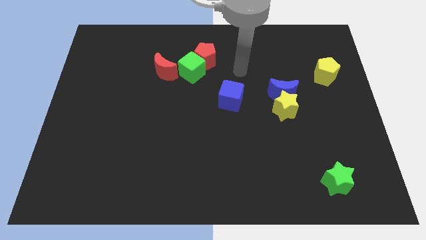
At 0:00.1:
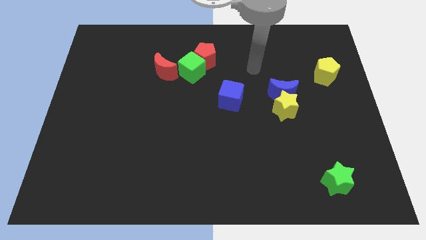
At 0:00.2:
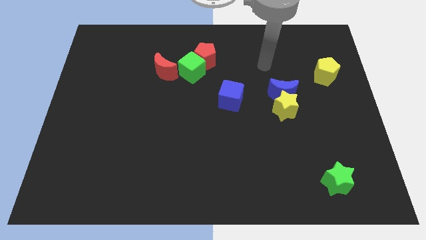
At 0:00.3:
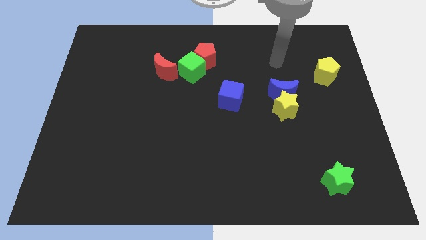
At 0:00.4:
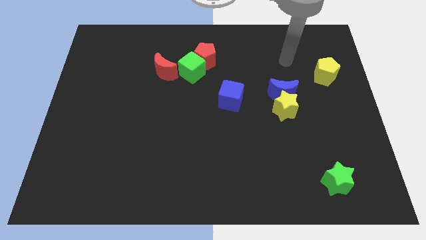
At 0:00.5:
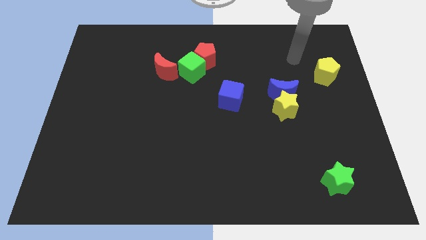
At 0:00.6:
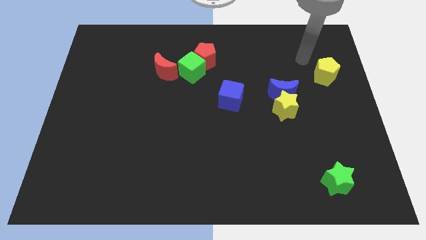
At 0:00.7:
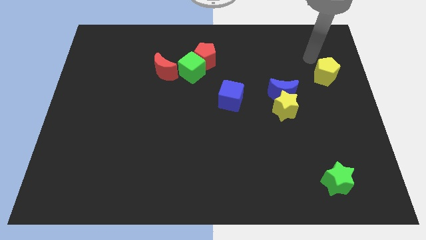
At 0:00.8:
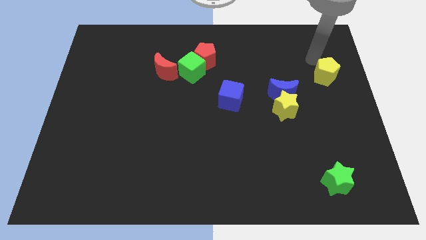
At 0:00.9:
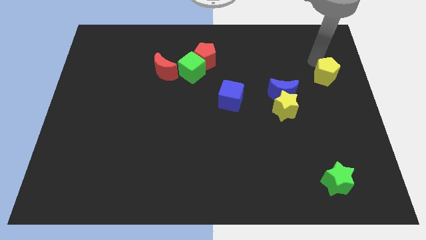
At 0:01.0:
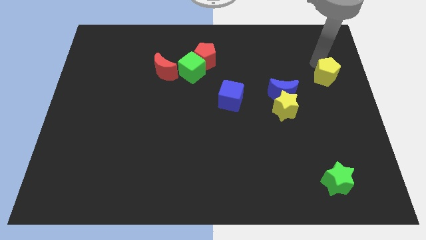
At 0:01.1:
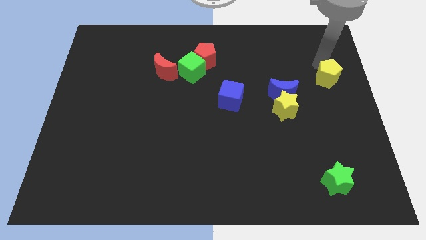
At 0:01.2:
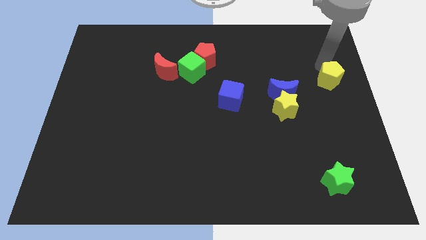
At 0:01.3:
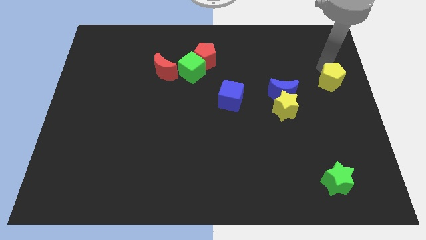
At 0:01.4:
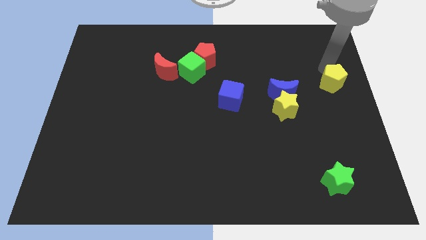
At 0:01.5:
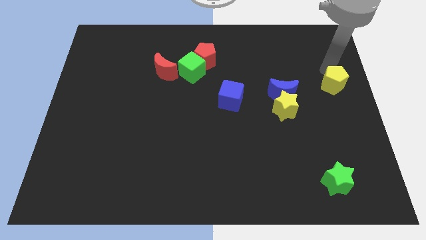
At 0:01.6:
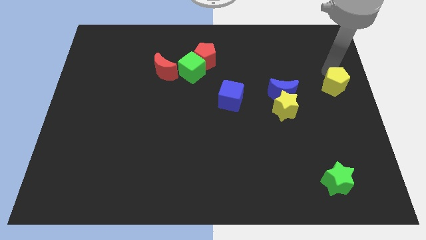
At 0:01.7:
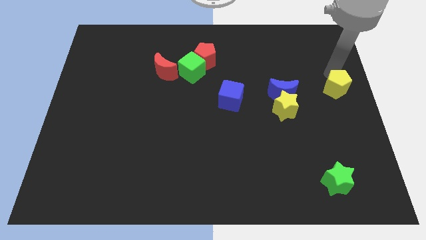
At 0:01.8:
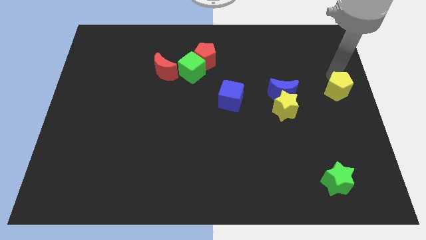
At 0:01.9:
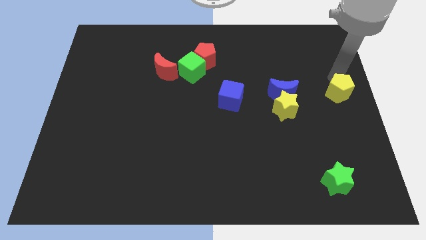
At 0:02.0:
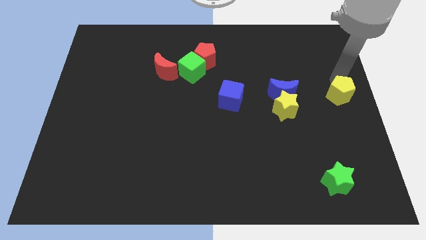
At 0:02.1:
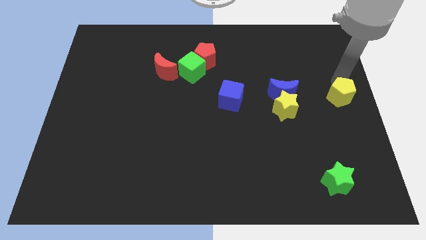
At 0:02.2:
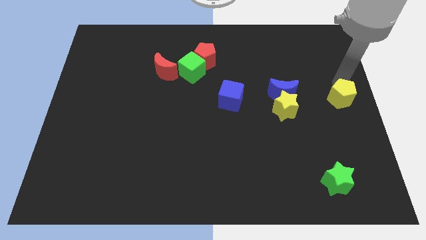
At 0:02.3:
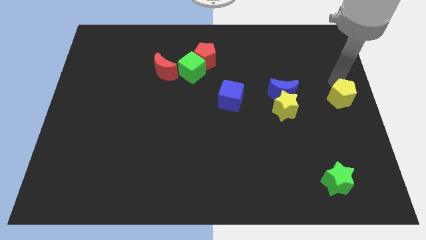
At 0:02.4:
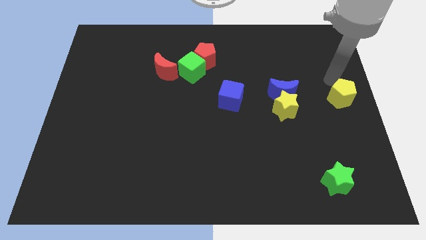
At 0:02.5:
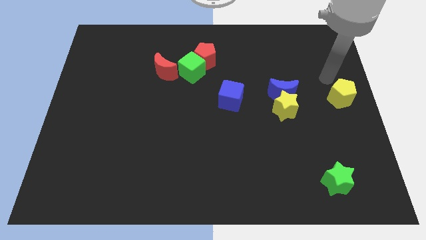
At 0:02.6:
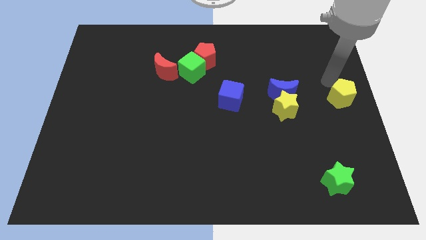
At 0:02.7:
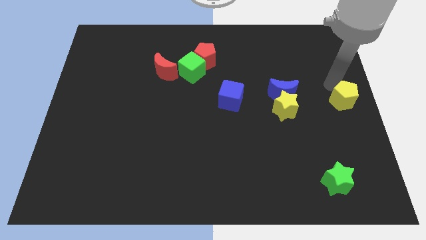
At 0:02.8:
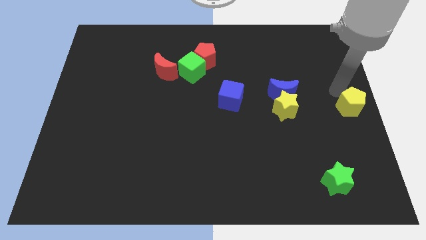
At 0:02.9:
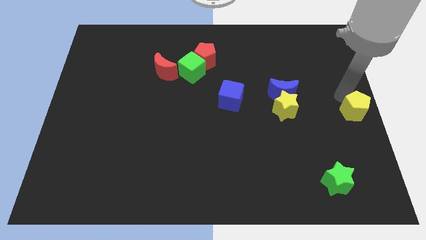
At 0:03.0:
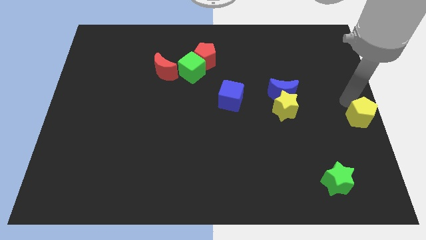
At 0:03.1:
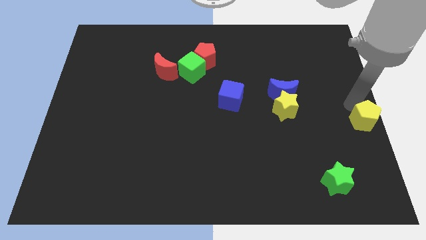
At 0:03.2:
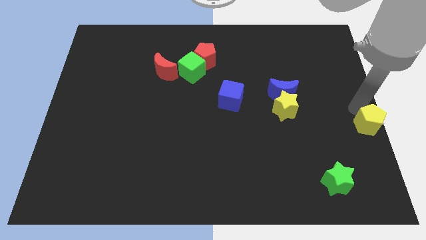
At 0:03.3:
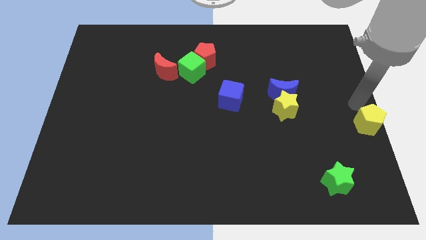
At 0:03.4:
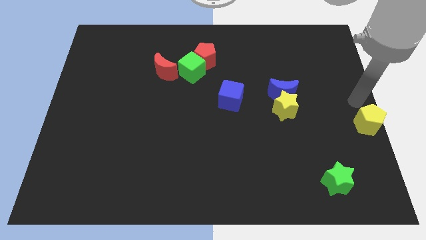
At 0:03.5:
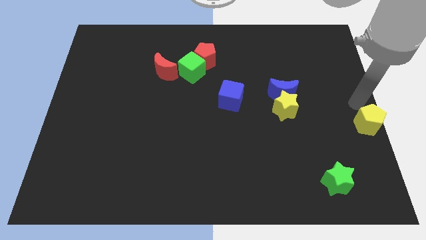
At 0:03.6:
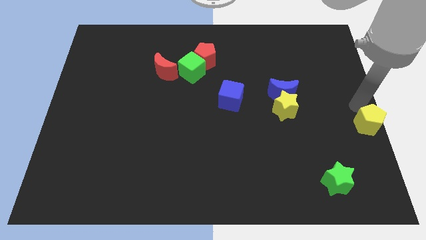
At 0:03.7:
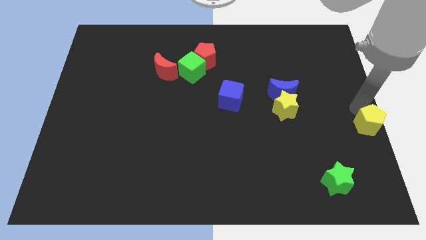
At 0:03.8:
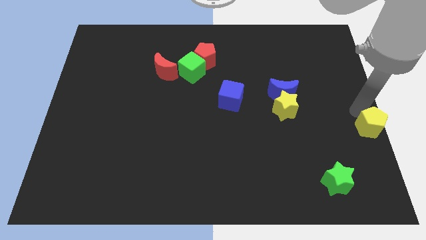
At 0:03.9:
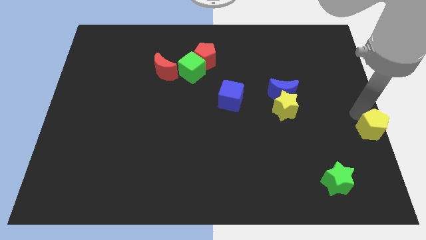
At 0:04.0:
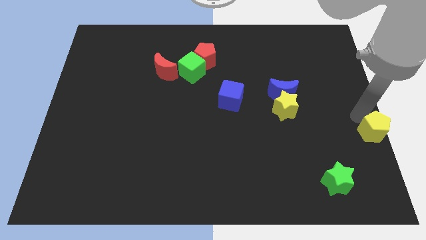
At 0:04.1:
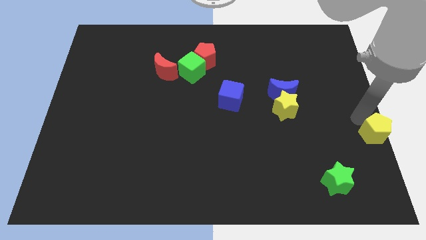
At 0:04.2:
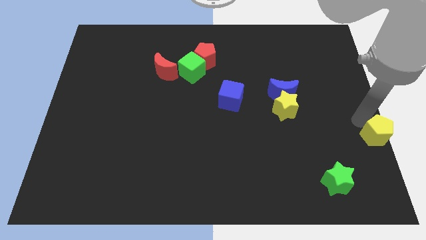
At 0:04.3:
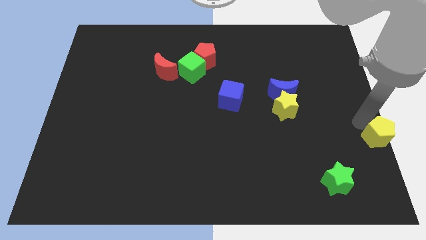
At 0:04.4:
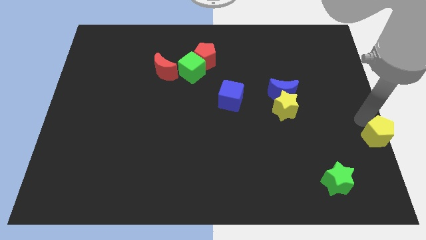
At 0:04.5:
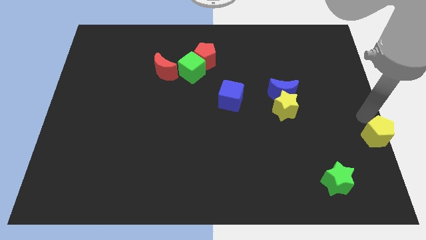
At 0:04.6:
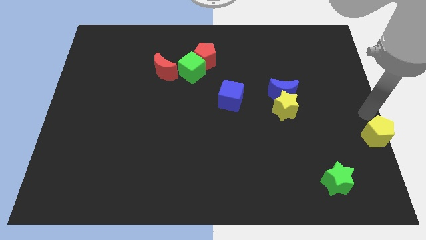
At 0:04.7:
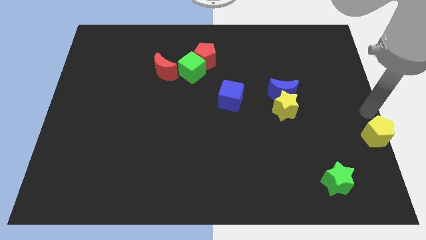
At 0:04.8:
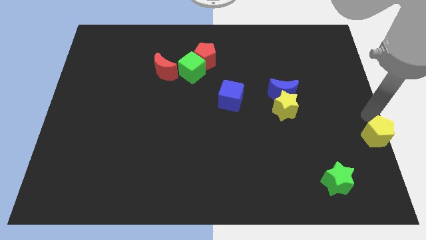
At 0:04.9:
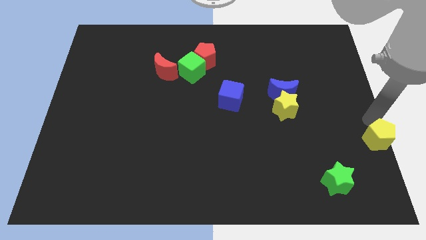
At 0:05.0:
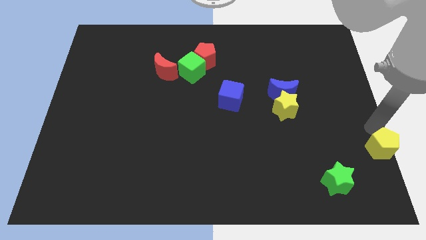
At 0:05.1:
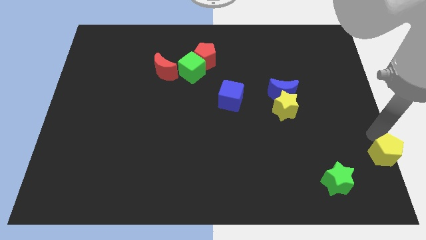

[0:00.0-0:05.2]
slide the yellow pentagon to the bottom right

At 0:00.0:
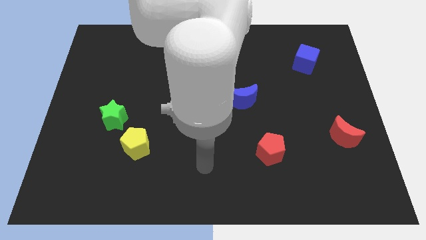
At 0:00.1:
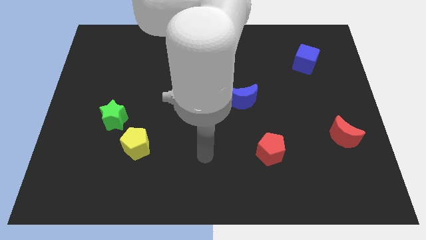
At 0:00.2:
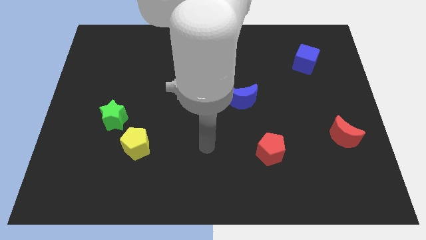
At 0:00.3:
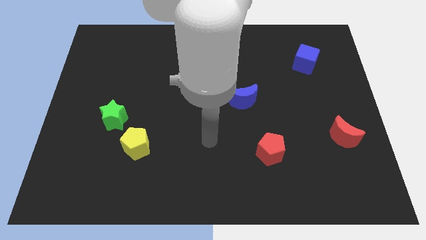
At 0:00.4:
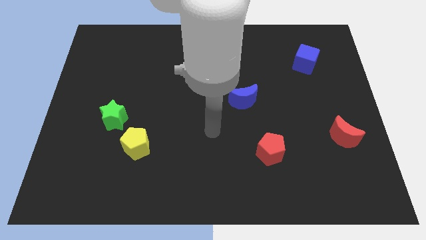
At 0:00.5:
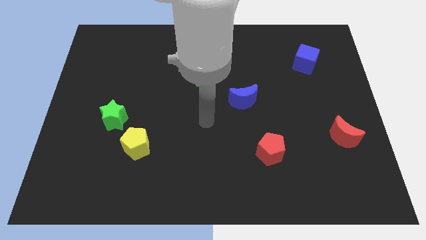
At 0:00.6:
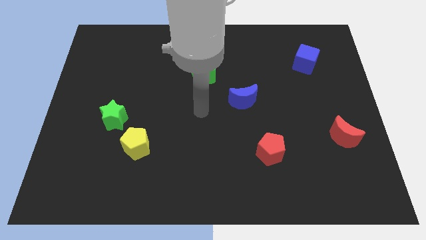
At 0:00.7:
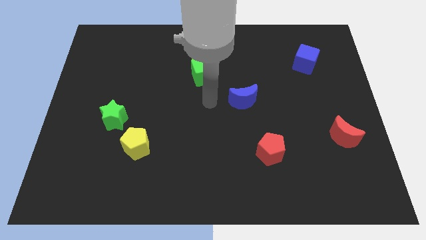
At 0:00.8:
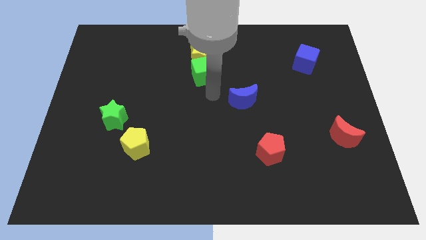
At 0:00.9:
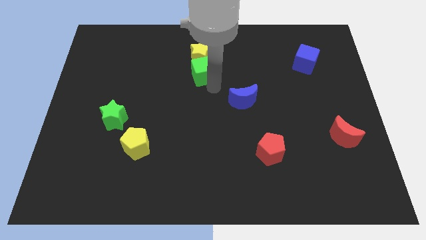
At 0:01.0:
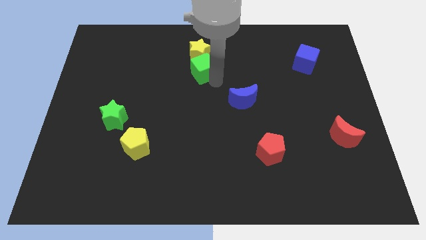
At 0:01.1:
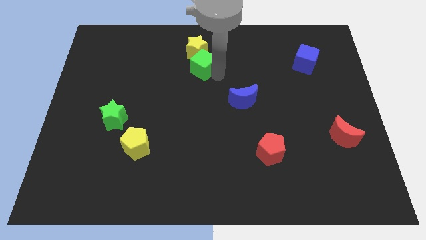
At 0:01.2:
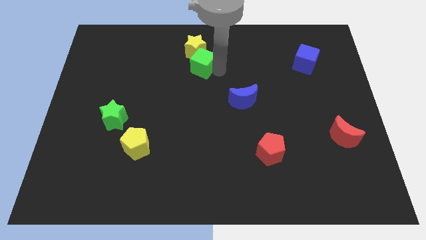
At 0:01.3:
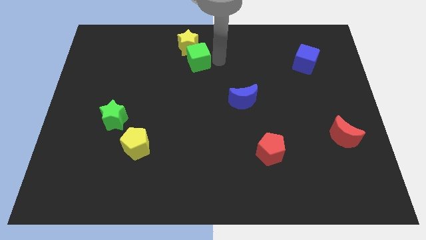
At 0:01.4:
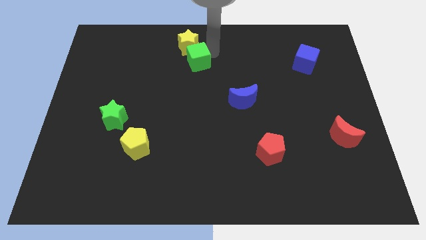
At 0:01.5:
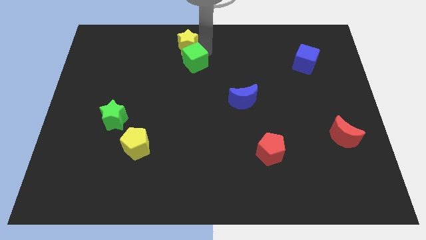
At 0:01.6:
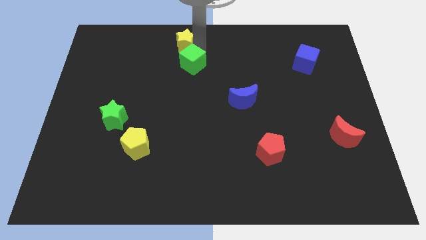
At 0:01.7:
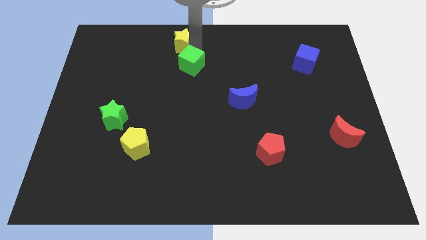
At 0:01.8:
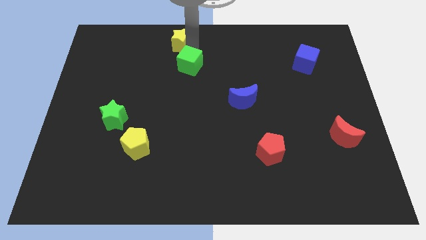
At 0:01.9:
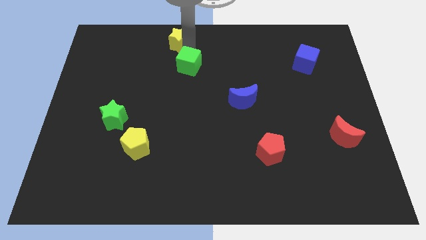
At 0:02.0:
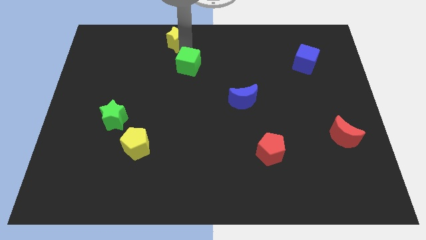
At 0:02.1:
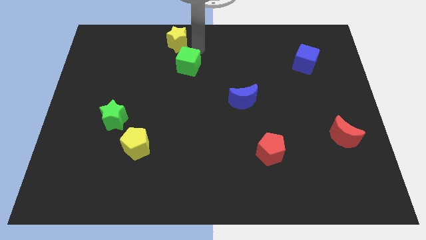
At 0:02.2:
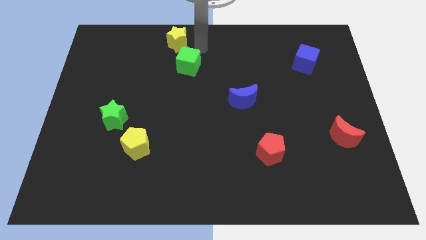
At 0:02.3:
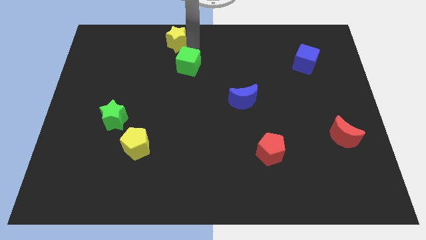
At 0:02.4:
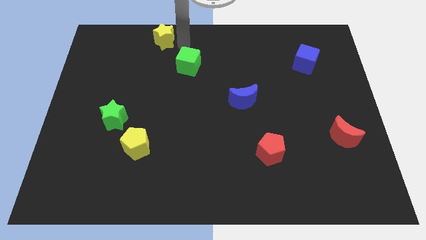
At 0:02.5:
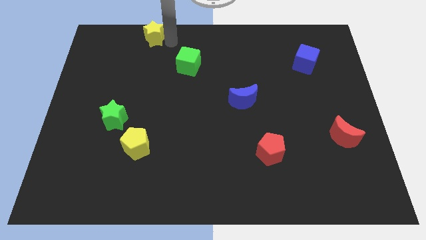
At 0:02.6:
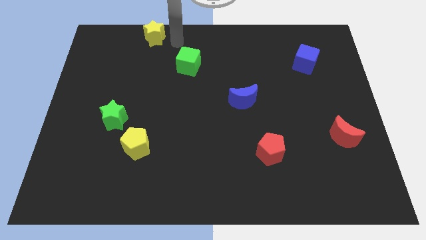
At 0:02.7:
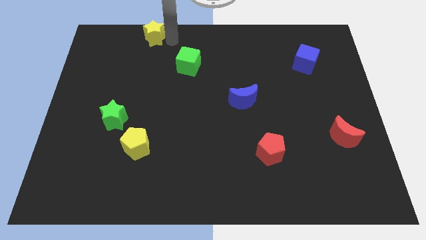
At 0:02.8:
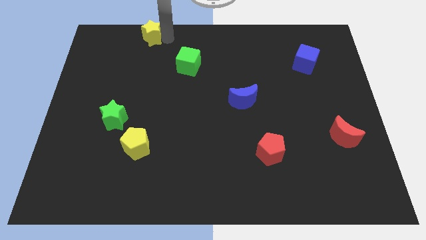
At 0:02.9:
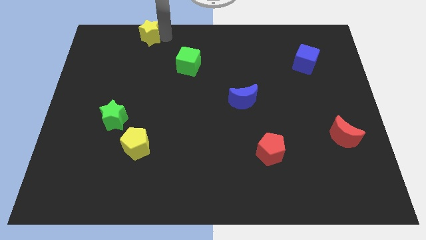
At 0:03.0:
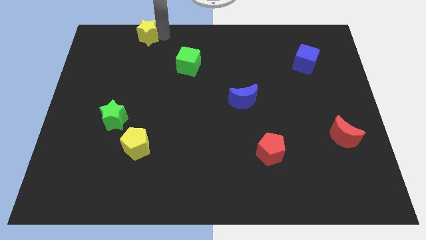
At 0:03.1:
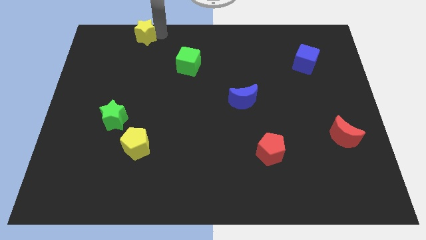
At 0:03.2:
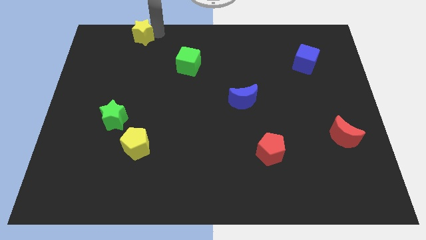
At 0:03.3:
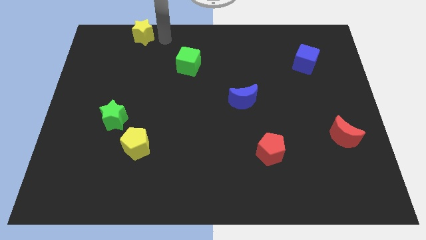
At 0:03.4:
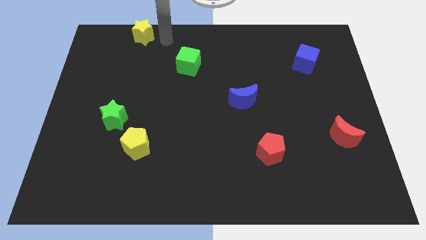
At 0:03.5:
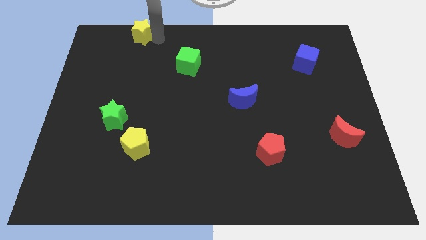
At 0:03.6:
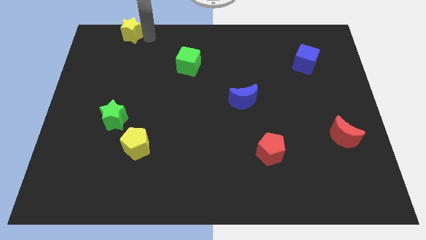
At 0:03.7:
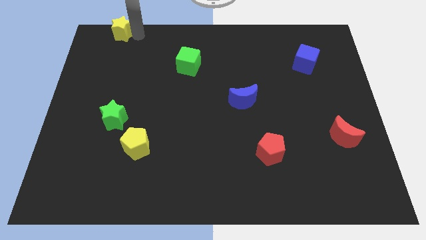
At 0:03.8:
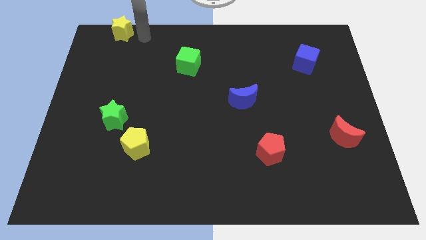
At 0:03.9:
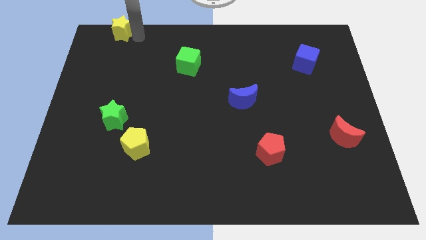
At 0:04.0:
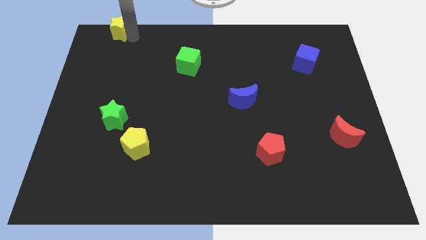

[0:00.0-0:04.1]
put the yellow star to the top left
